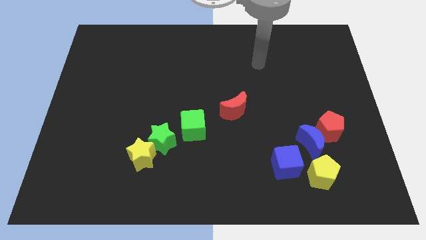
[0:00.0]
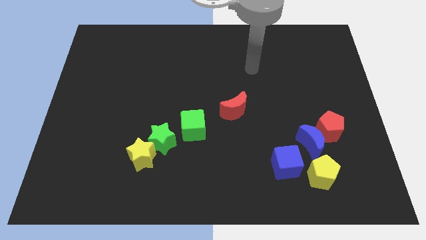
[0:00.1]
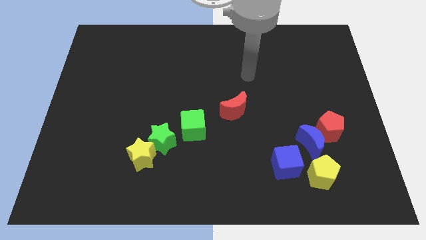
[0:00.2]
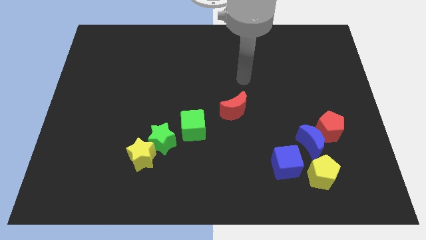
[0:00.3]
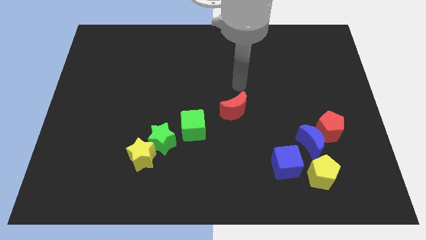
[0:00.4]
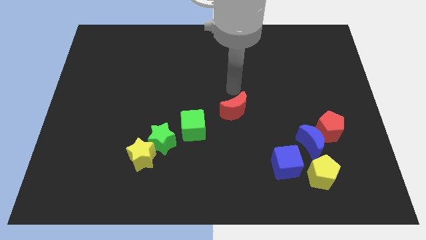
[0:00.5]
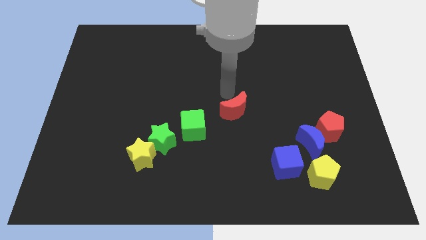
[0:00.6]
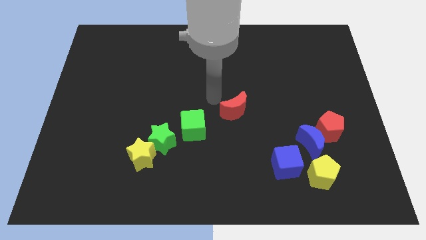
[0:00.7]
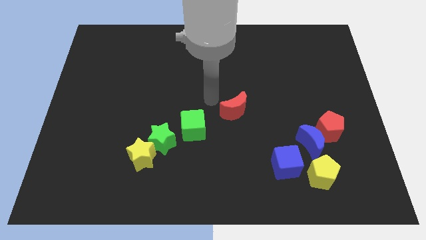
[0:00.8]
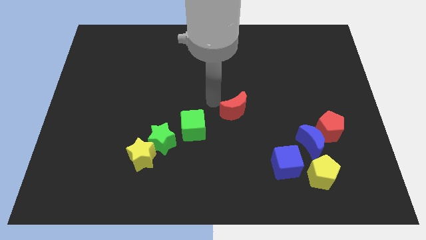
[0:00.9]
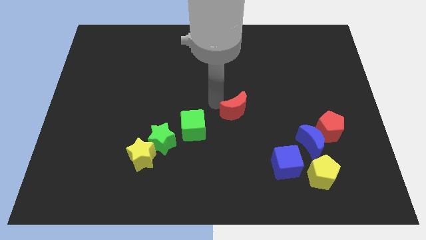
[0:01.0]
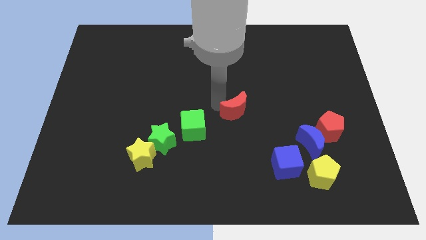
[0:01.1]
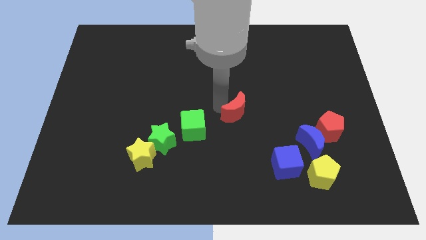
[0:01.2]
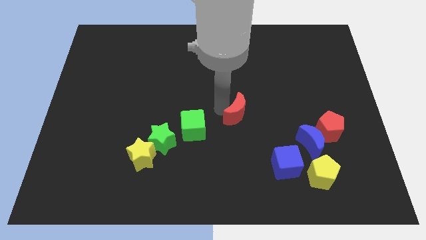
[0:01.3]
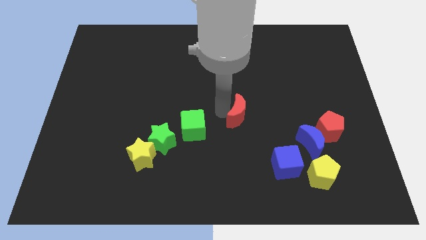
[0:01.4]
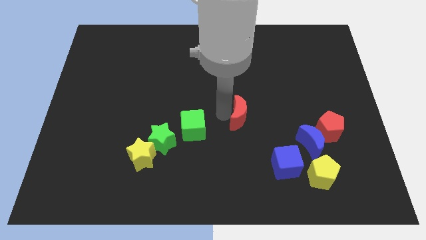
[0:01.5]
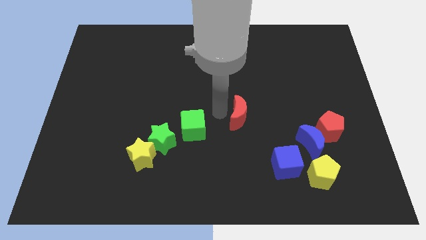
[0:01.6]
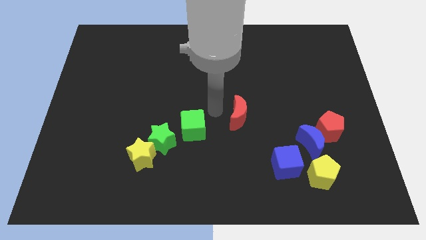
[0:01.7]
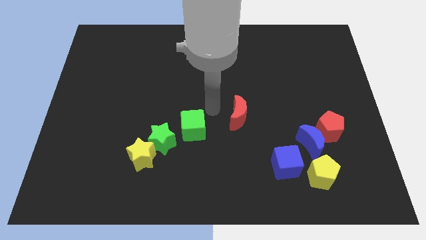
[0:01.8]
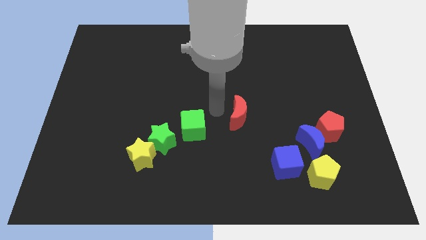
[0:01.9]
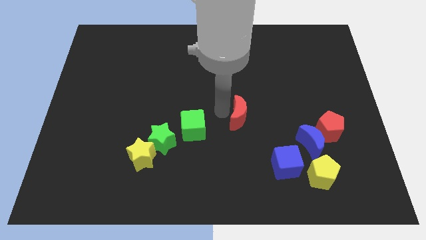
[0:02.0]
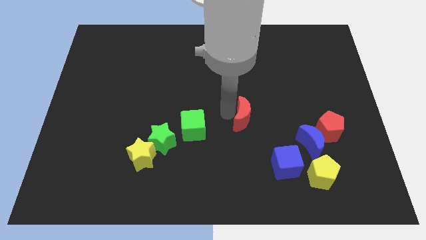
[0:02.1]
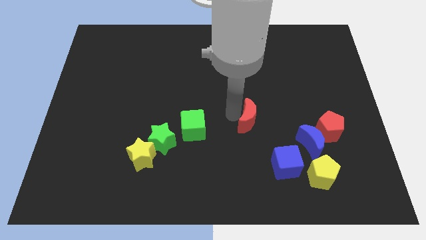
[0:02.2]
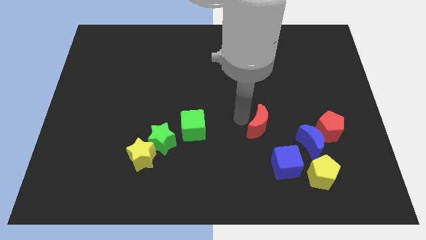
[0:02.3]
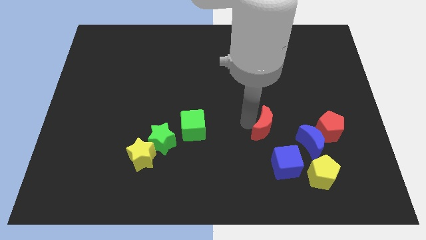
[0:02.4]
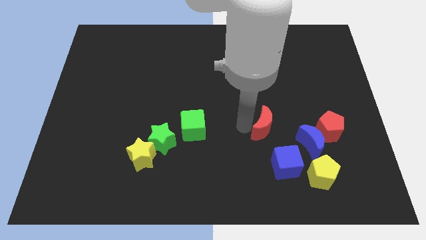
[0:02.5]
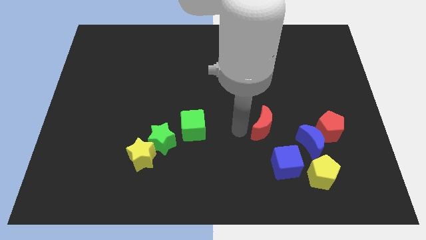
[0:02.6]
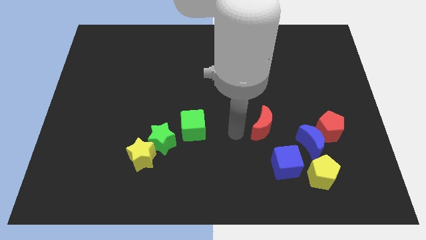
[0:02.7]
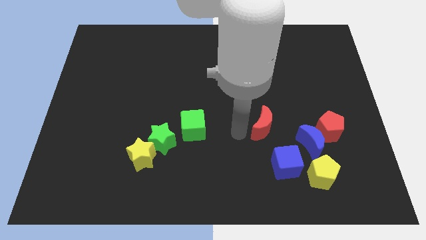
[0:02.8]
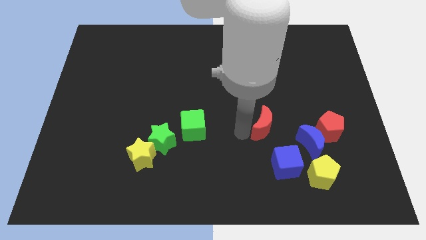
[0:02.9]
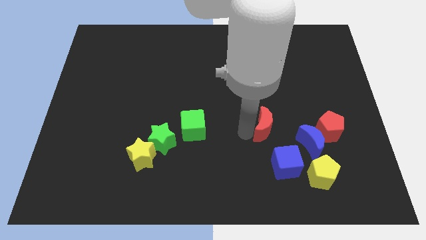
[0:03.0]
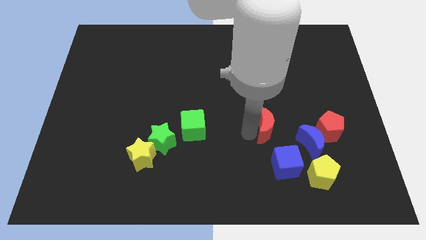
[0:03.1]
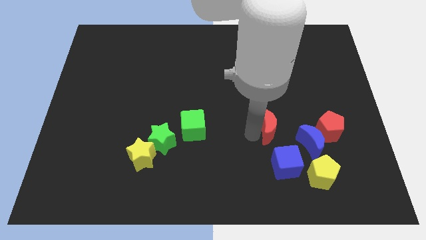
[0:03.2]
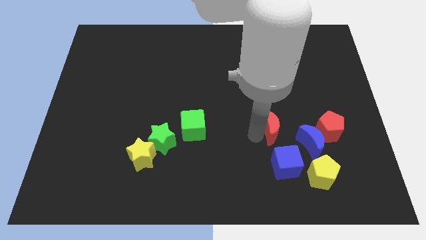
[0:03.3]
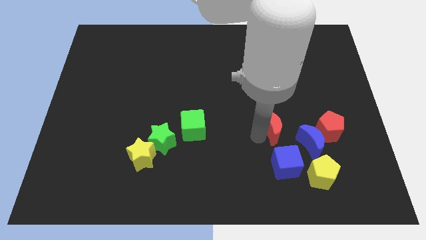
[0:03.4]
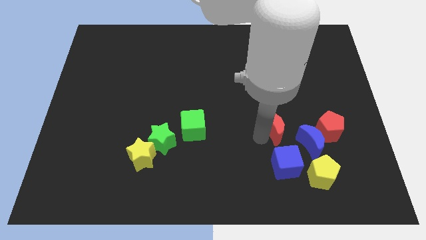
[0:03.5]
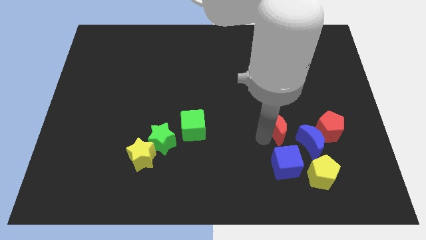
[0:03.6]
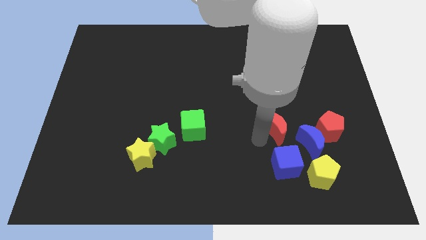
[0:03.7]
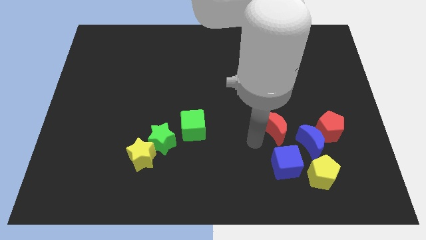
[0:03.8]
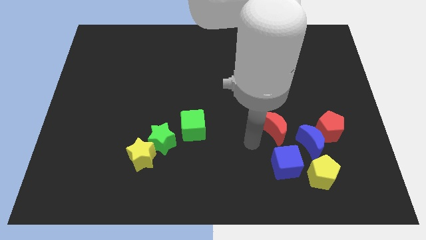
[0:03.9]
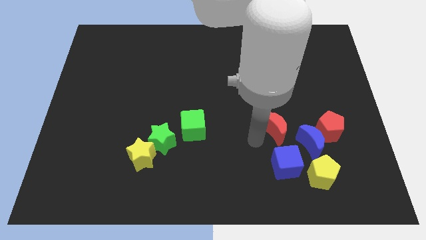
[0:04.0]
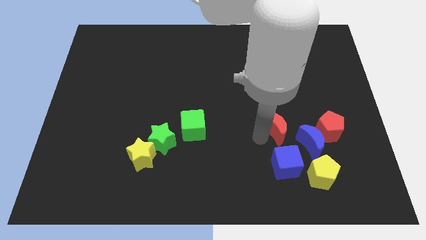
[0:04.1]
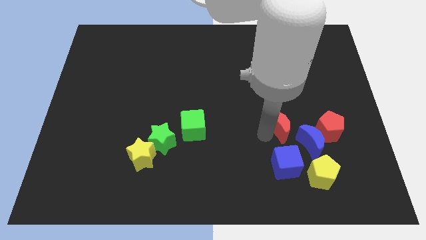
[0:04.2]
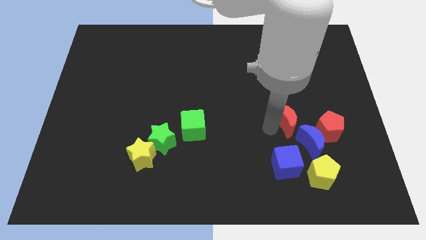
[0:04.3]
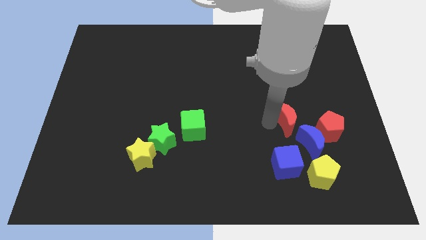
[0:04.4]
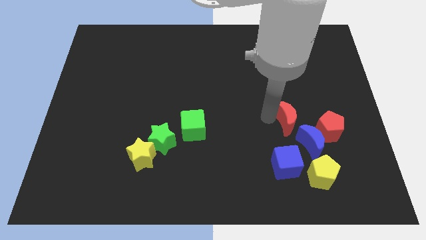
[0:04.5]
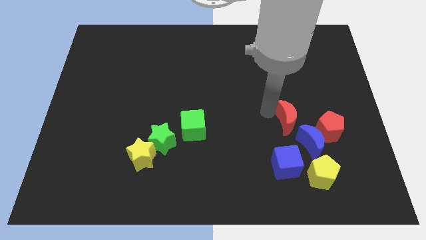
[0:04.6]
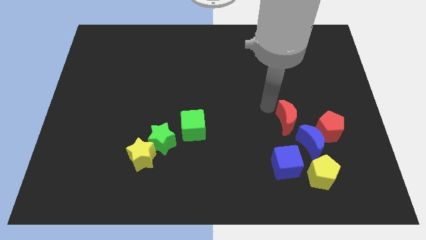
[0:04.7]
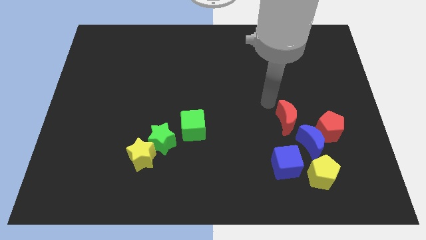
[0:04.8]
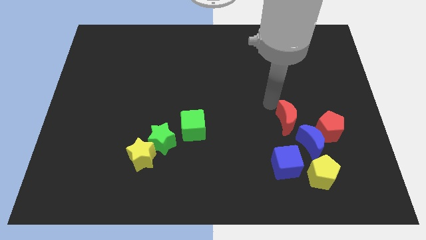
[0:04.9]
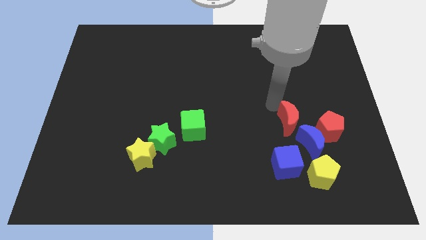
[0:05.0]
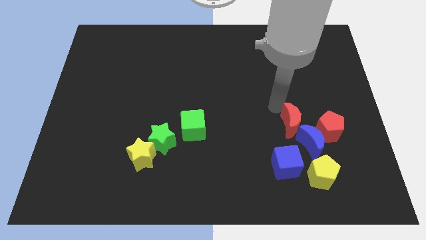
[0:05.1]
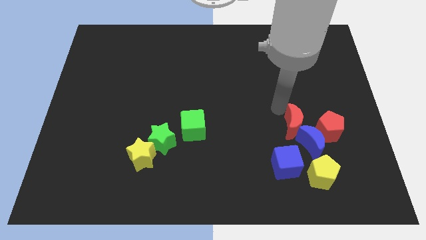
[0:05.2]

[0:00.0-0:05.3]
push the red moon next to the blue moon

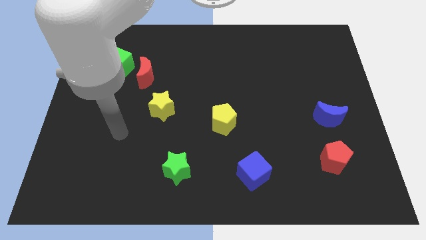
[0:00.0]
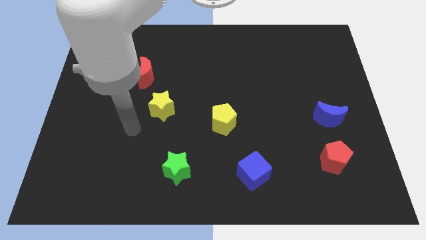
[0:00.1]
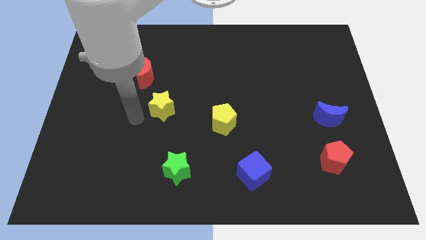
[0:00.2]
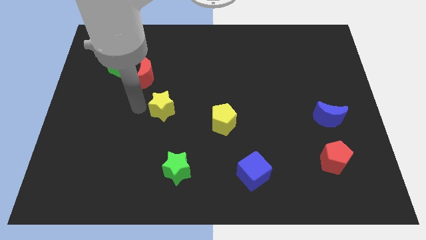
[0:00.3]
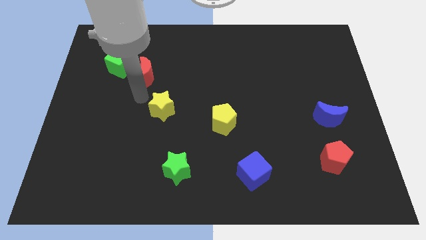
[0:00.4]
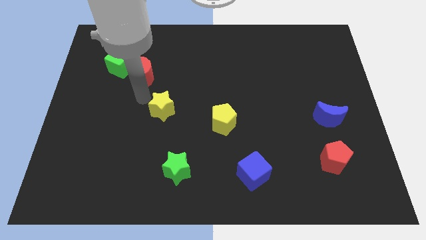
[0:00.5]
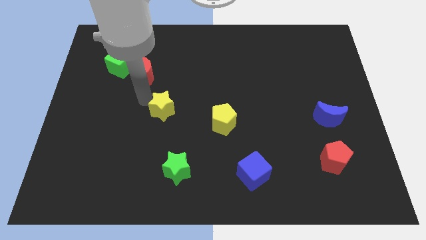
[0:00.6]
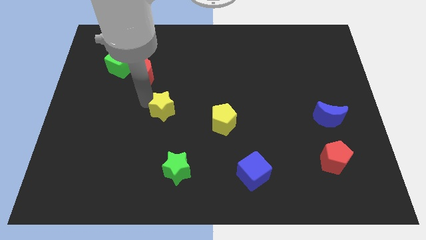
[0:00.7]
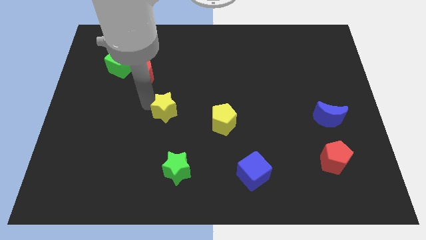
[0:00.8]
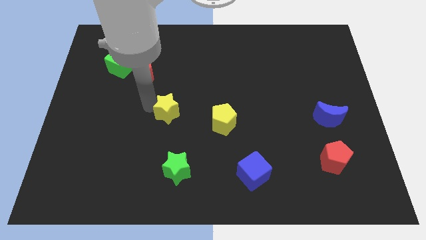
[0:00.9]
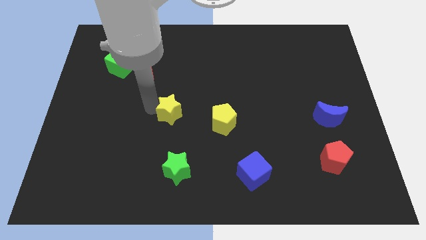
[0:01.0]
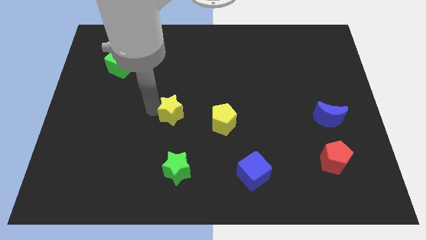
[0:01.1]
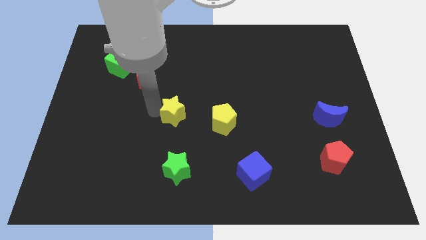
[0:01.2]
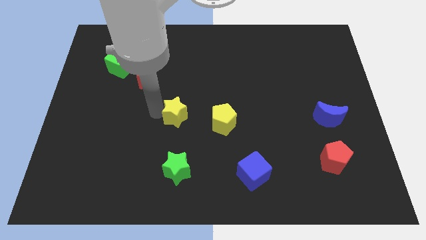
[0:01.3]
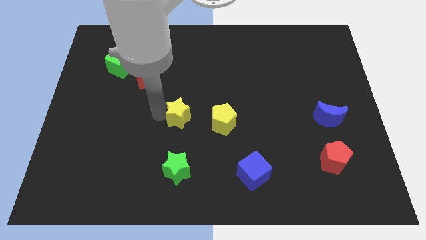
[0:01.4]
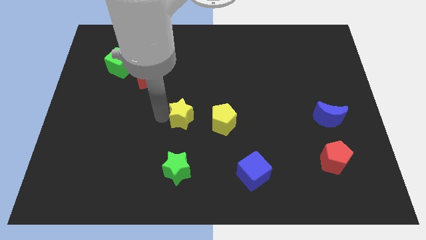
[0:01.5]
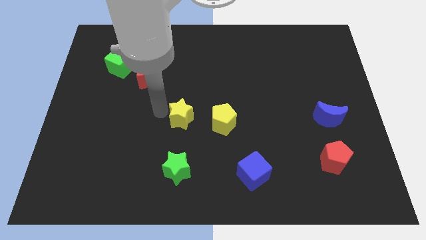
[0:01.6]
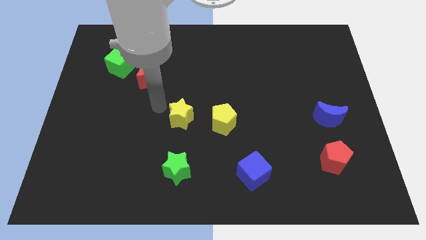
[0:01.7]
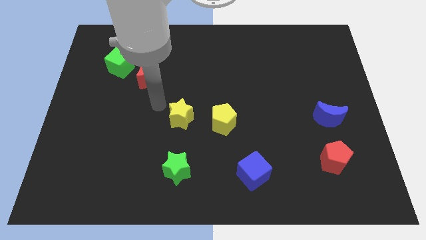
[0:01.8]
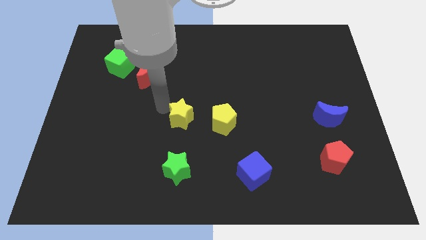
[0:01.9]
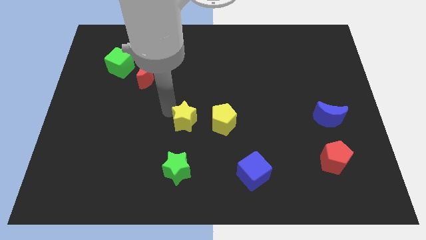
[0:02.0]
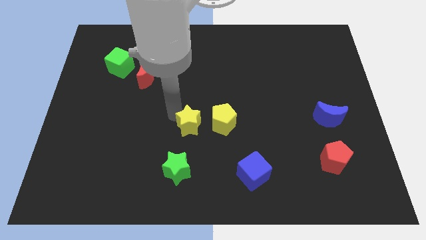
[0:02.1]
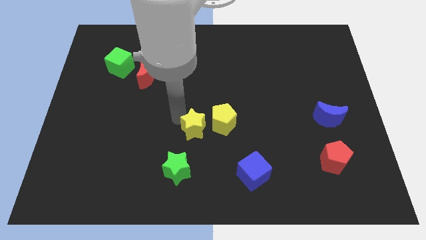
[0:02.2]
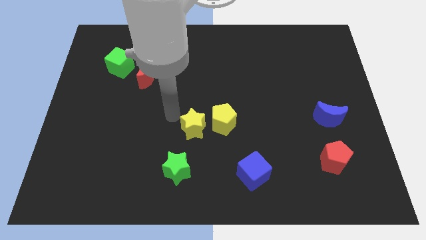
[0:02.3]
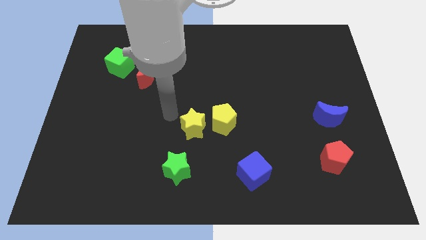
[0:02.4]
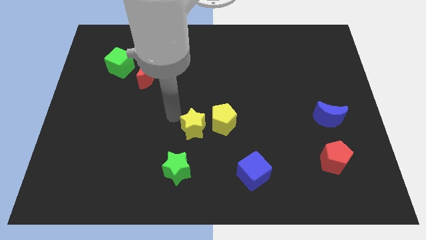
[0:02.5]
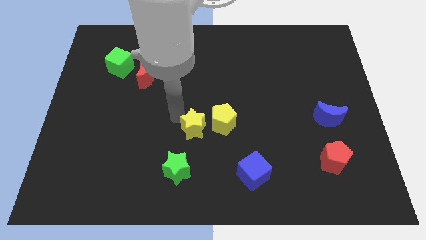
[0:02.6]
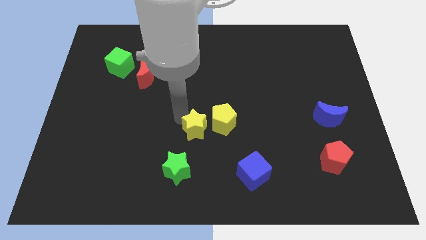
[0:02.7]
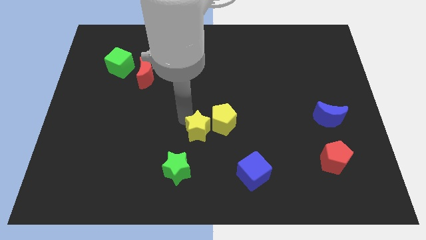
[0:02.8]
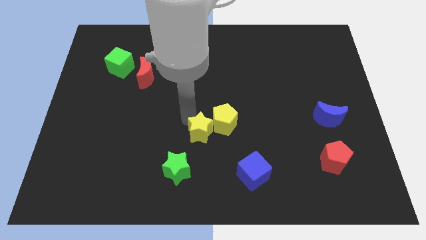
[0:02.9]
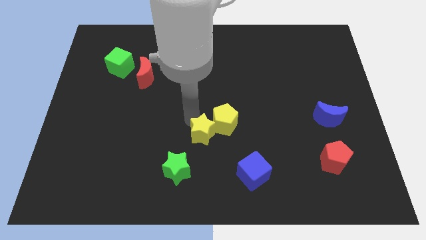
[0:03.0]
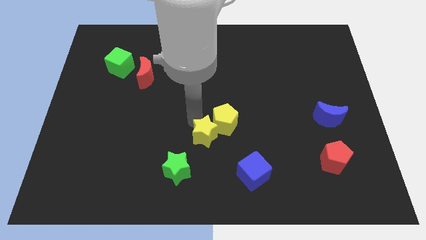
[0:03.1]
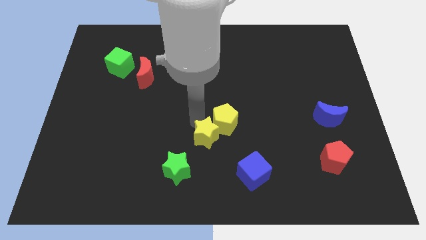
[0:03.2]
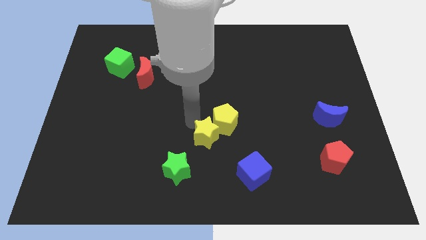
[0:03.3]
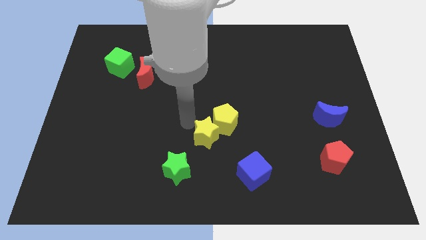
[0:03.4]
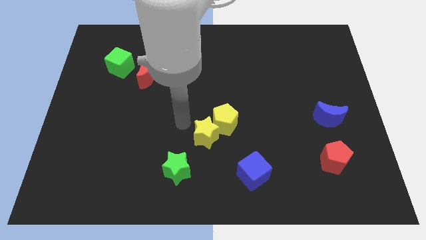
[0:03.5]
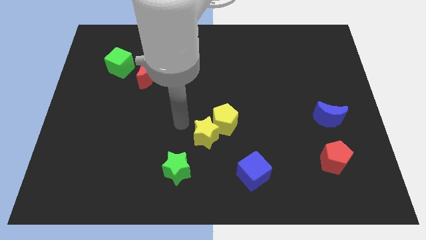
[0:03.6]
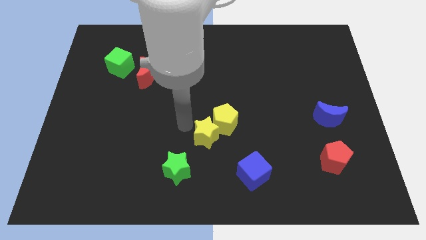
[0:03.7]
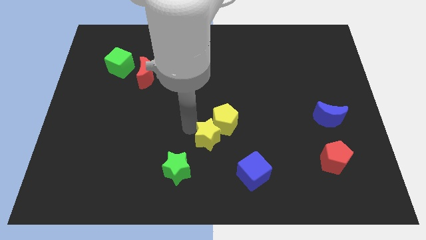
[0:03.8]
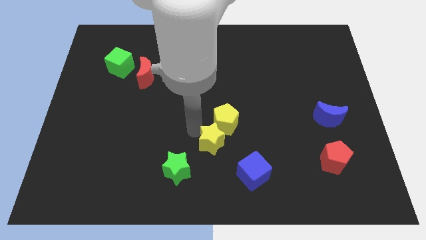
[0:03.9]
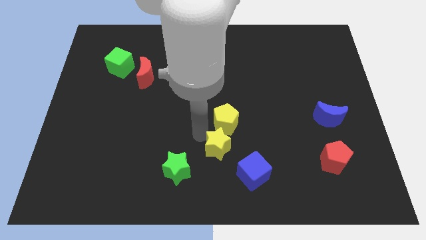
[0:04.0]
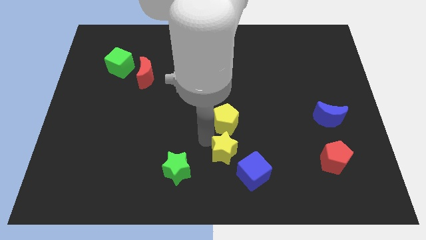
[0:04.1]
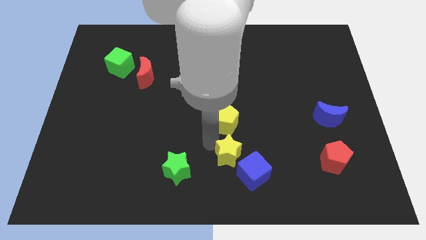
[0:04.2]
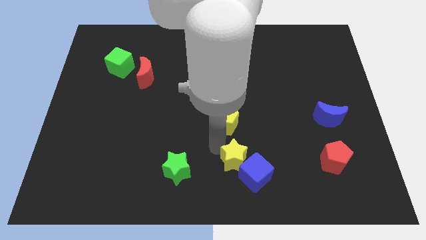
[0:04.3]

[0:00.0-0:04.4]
slide the yellow star close to the blue cube
